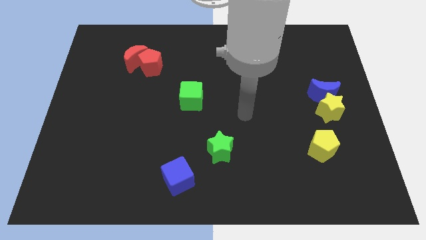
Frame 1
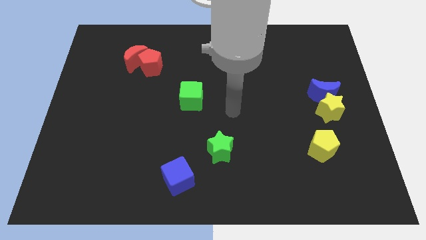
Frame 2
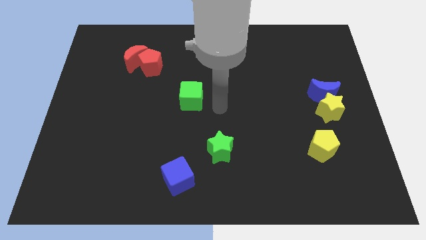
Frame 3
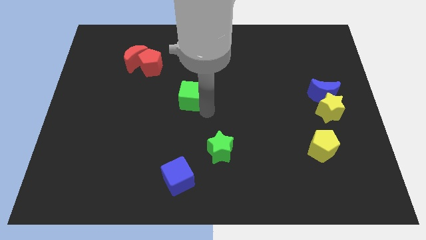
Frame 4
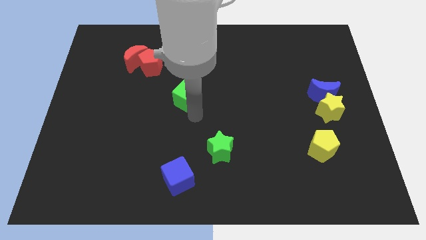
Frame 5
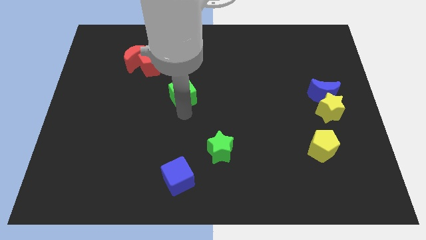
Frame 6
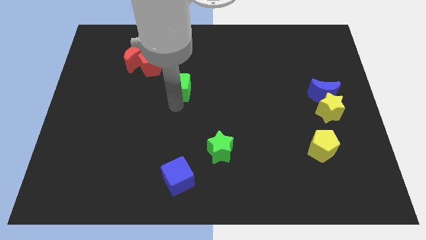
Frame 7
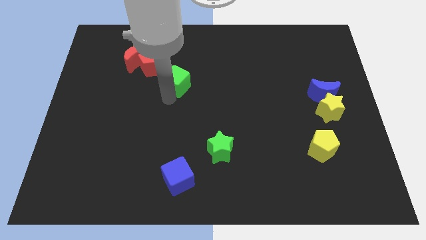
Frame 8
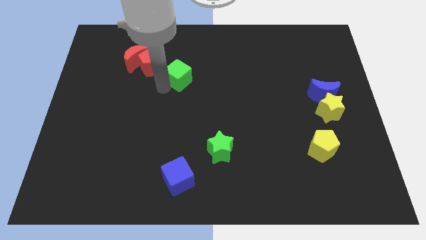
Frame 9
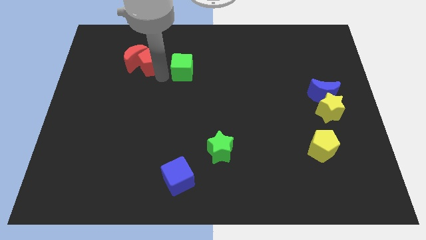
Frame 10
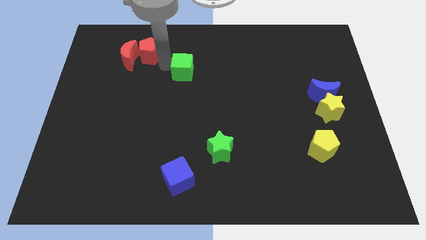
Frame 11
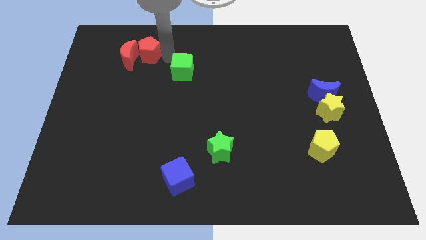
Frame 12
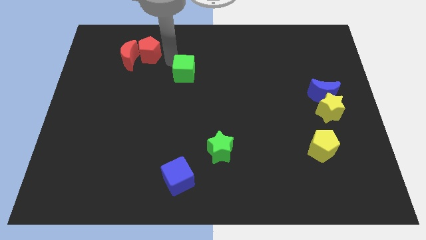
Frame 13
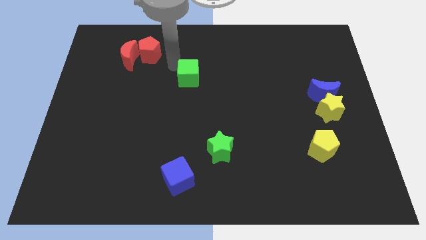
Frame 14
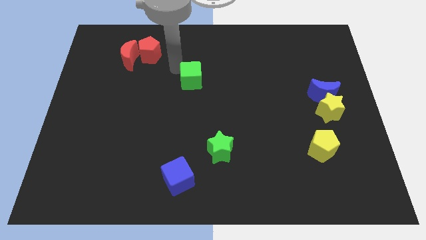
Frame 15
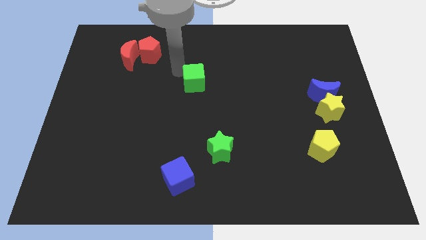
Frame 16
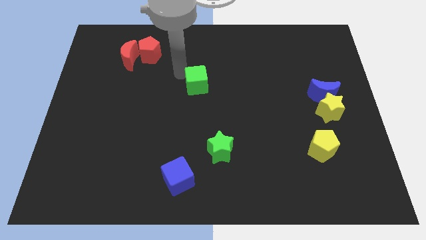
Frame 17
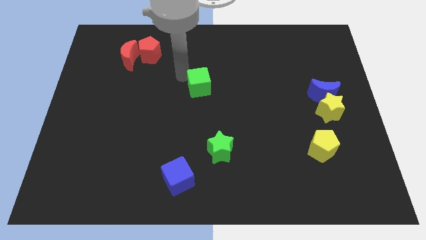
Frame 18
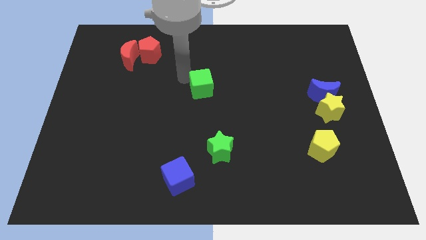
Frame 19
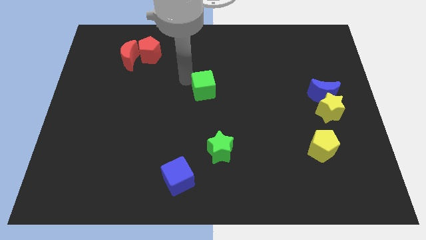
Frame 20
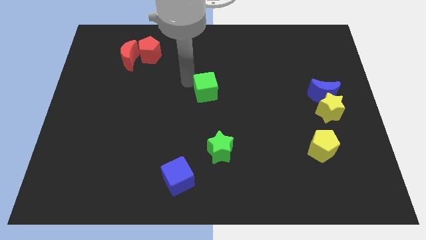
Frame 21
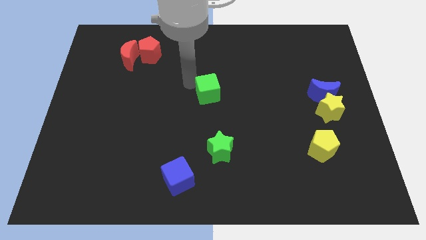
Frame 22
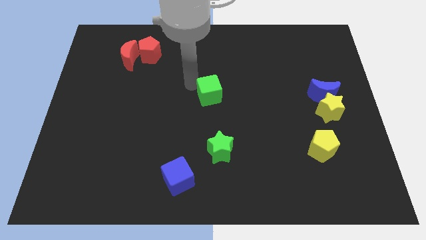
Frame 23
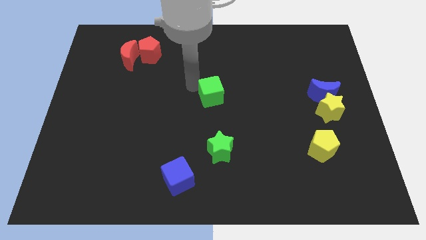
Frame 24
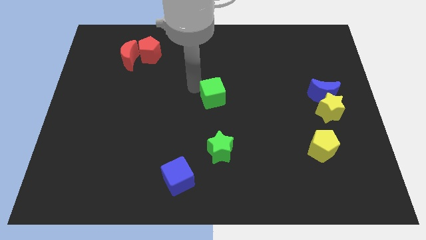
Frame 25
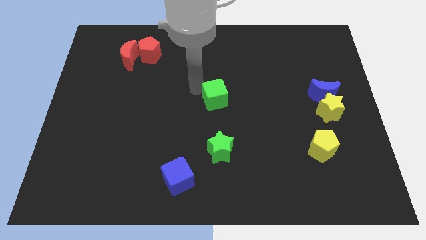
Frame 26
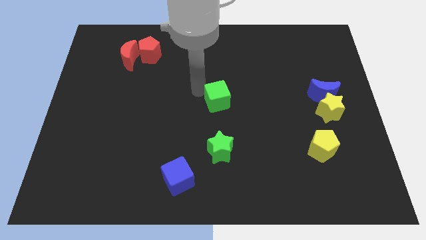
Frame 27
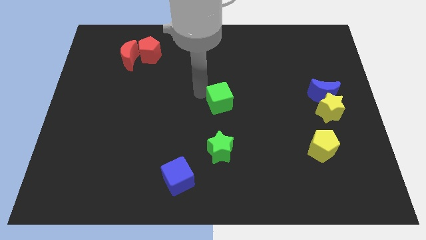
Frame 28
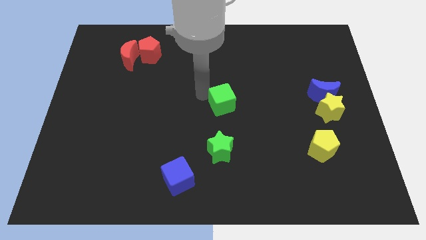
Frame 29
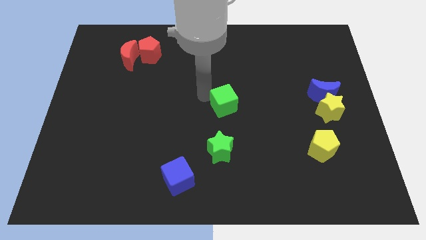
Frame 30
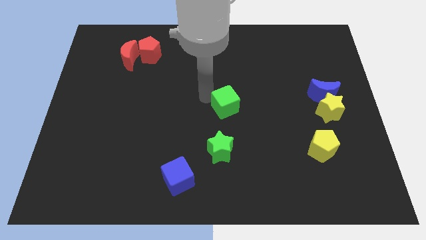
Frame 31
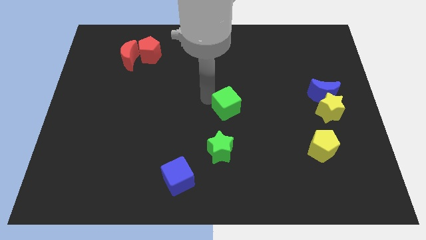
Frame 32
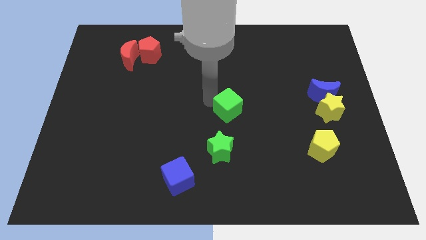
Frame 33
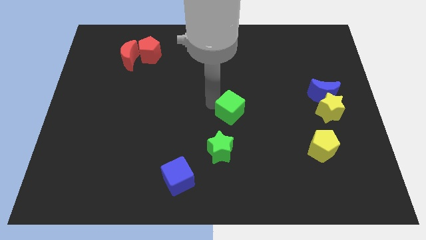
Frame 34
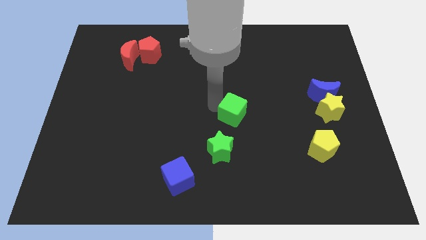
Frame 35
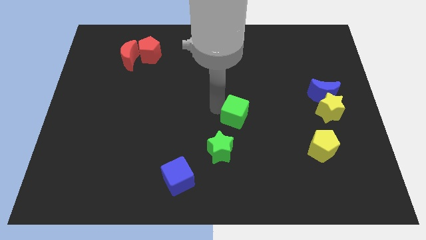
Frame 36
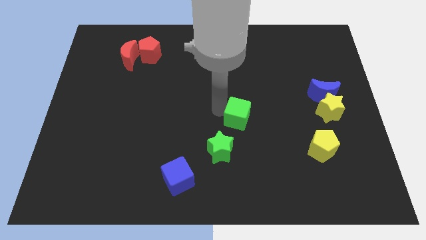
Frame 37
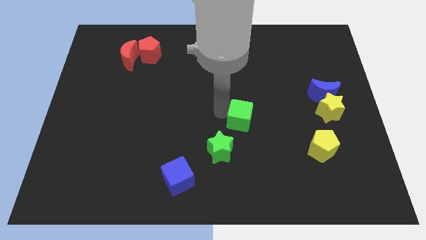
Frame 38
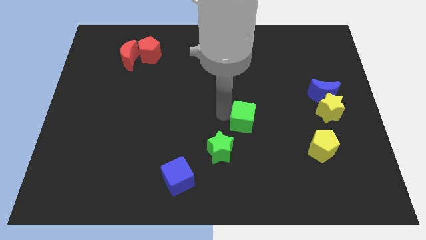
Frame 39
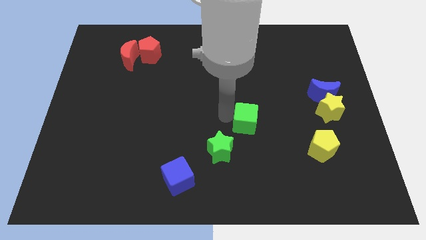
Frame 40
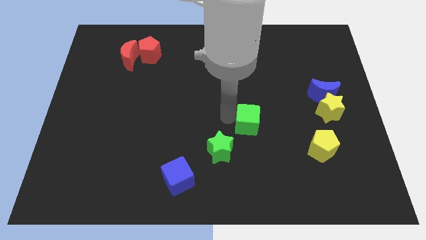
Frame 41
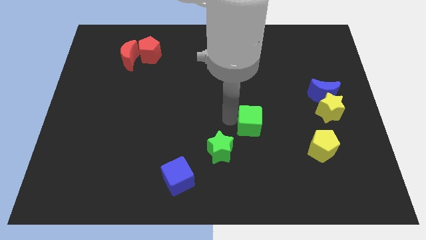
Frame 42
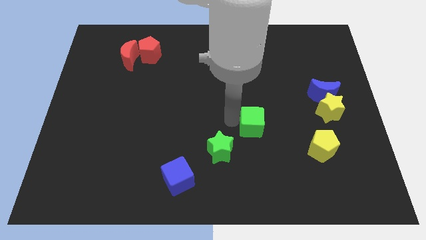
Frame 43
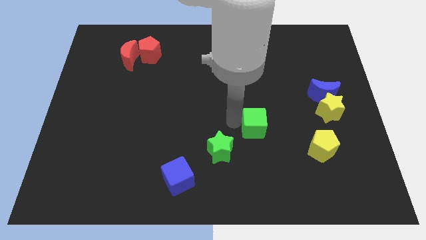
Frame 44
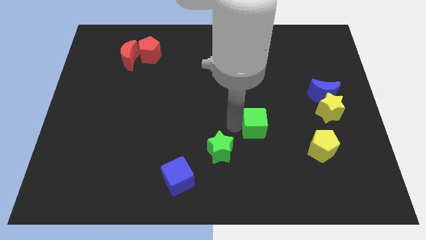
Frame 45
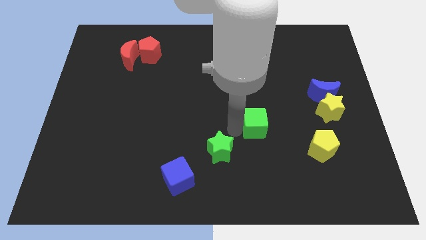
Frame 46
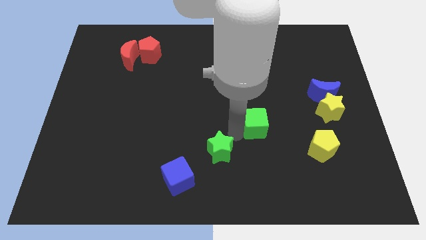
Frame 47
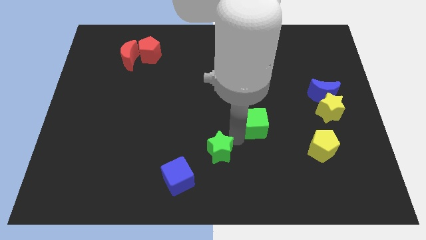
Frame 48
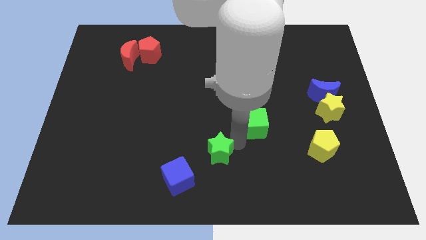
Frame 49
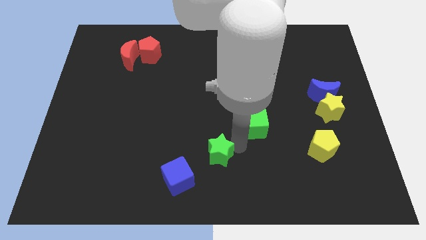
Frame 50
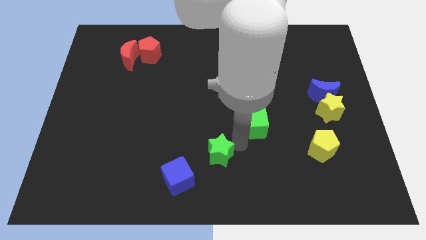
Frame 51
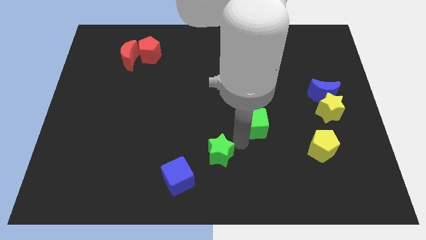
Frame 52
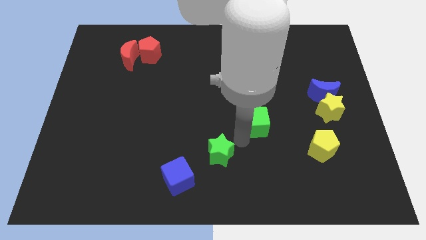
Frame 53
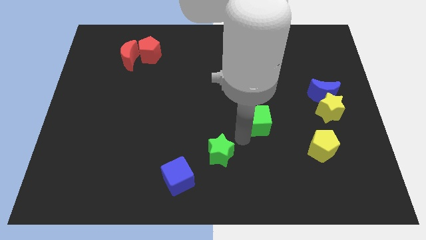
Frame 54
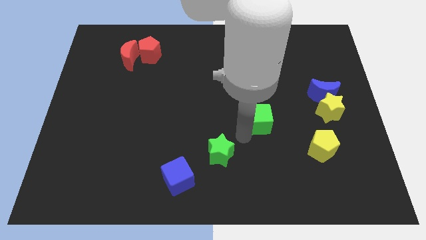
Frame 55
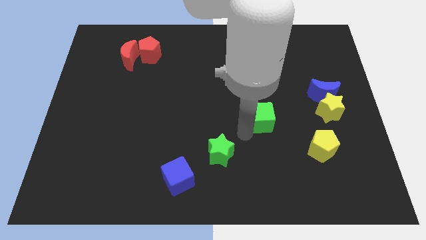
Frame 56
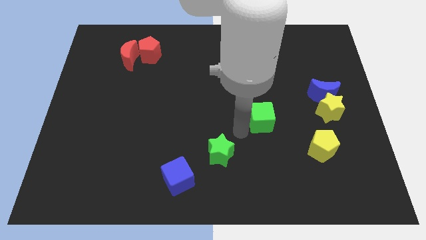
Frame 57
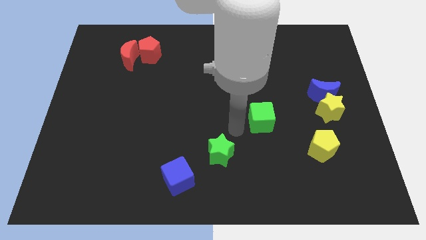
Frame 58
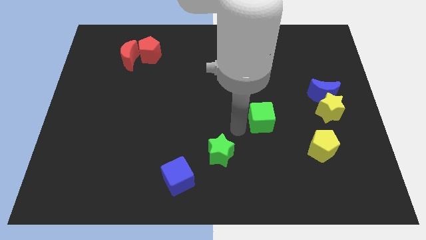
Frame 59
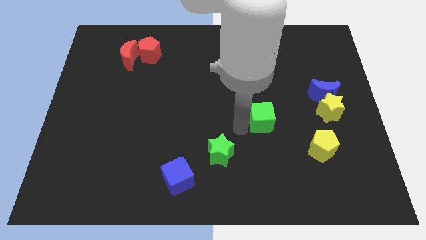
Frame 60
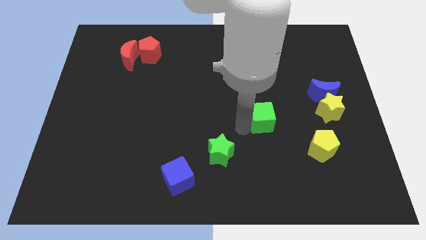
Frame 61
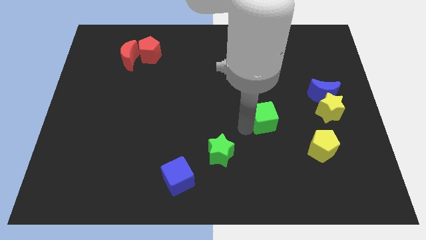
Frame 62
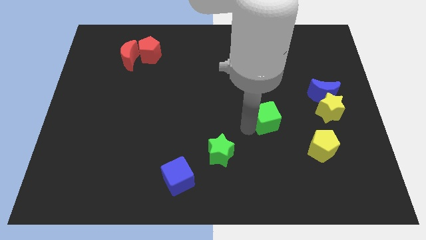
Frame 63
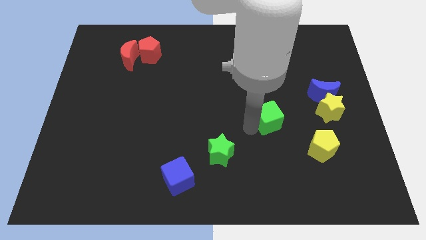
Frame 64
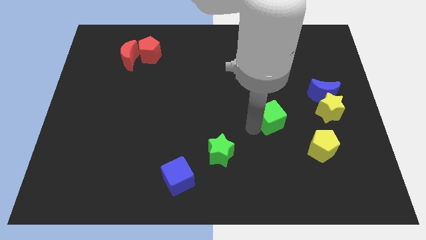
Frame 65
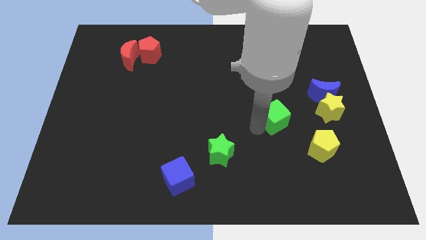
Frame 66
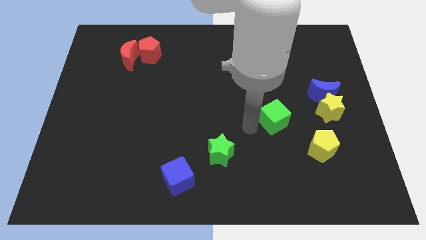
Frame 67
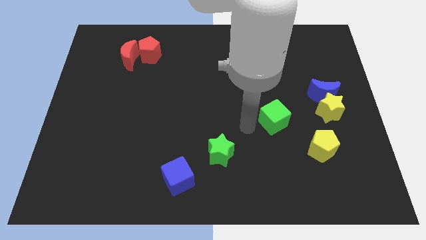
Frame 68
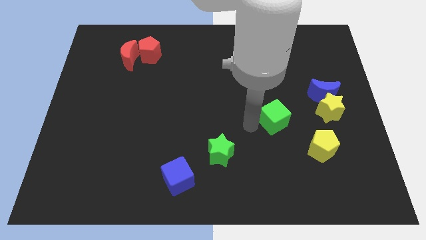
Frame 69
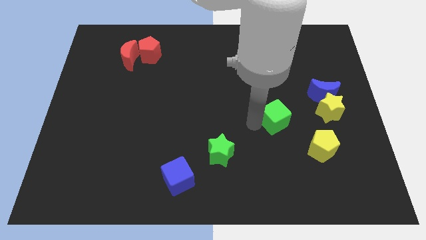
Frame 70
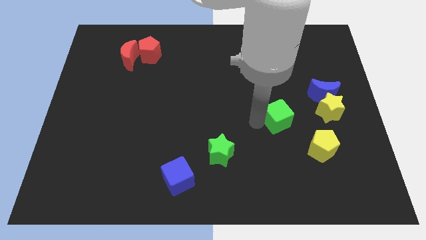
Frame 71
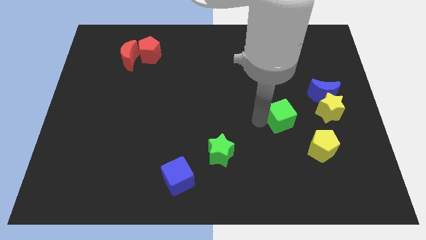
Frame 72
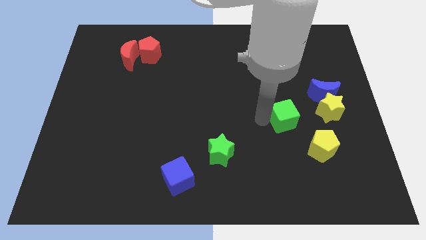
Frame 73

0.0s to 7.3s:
push the green cube diagonally down and to the left of the blue moon
